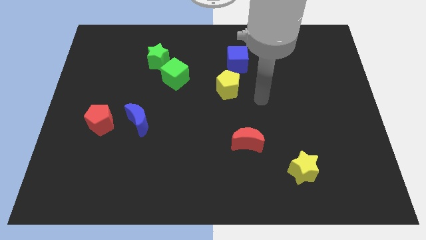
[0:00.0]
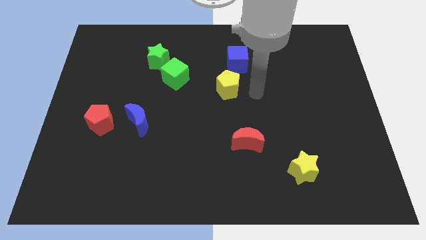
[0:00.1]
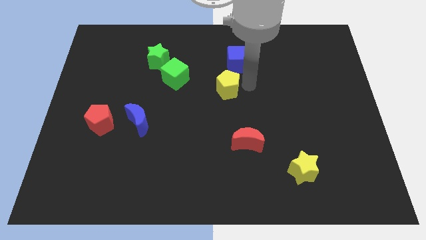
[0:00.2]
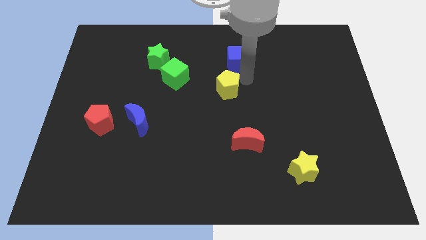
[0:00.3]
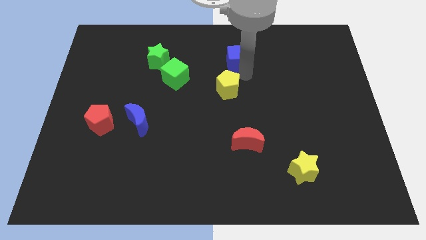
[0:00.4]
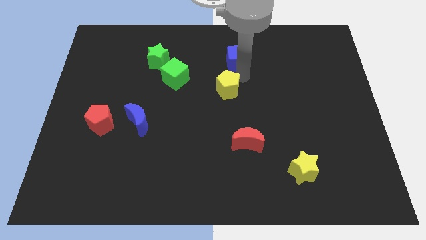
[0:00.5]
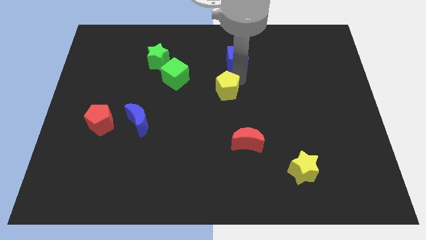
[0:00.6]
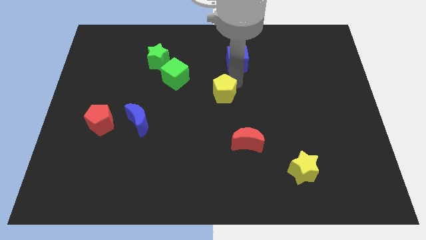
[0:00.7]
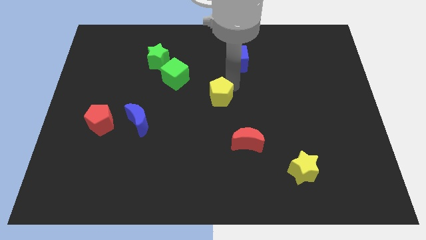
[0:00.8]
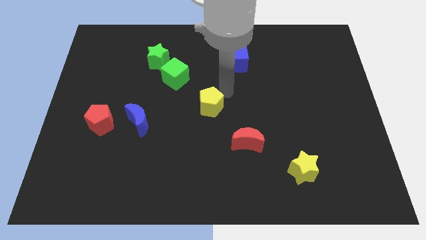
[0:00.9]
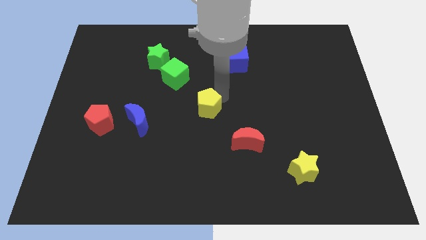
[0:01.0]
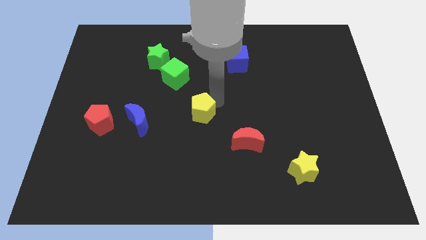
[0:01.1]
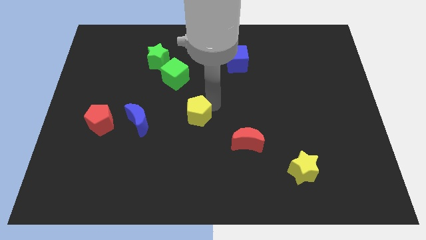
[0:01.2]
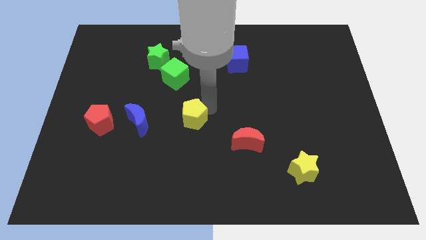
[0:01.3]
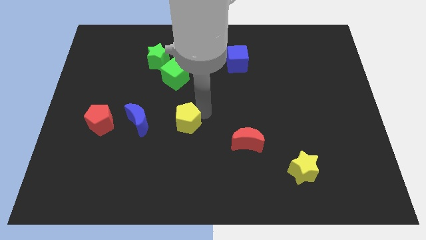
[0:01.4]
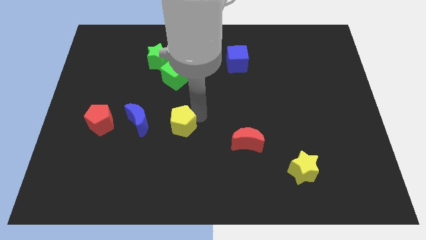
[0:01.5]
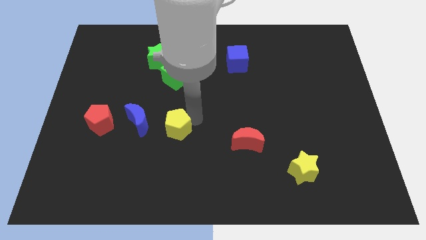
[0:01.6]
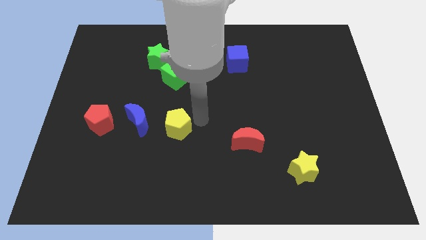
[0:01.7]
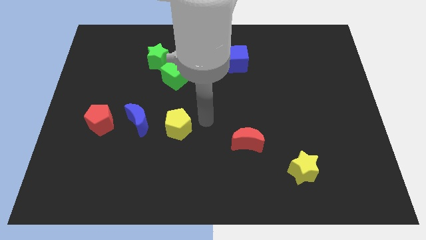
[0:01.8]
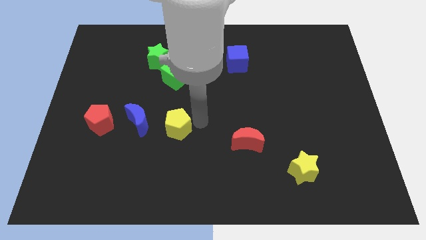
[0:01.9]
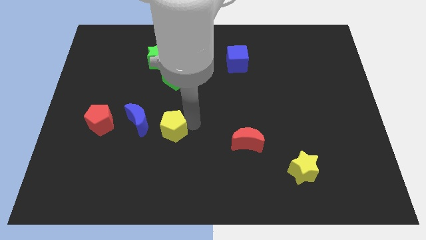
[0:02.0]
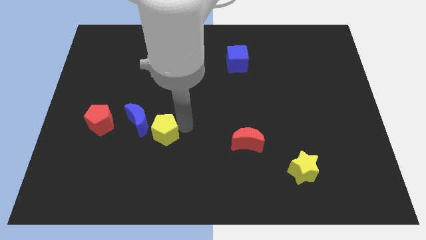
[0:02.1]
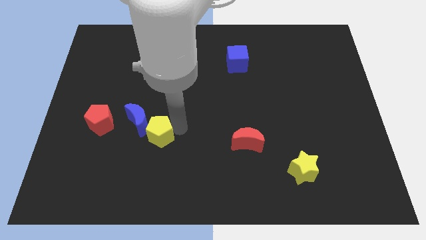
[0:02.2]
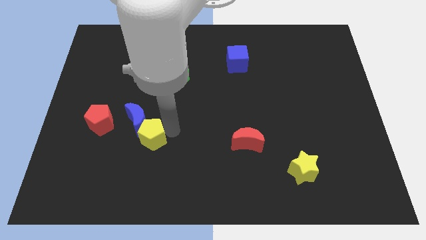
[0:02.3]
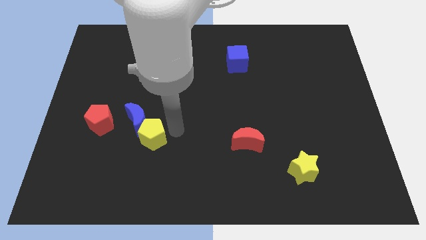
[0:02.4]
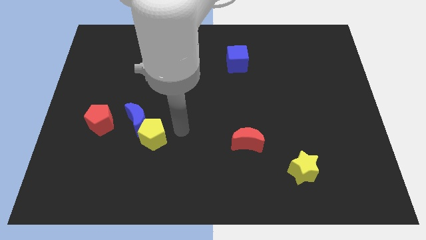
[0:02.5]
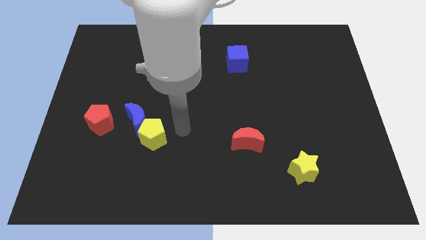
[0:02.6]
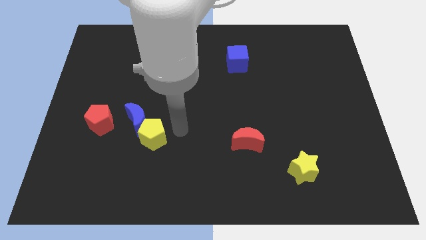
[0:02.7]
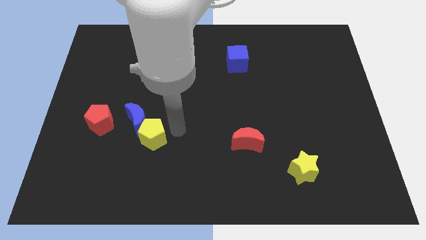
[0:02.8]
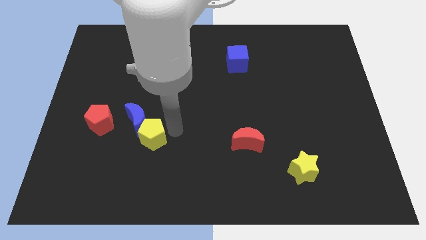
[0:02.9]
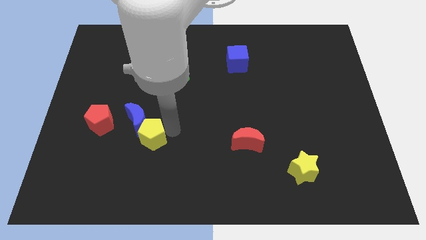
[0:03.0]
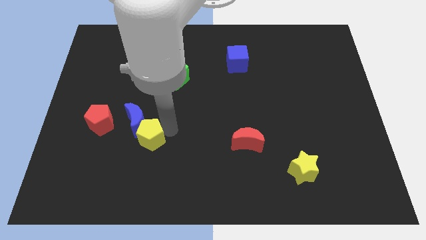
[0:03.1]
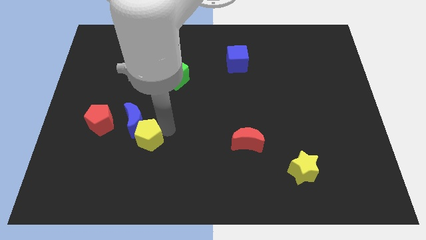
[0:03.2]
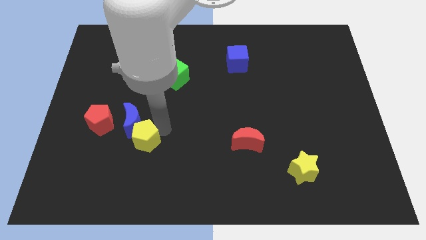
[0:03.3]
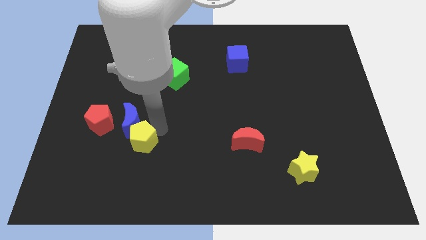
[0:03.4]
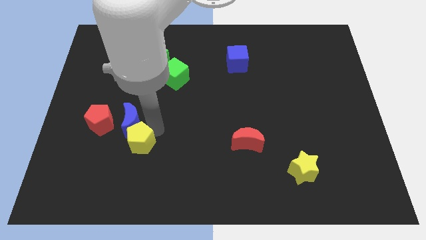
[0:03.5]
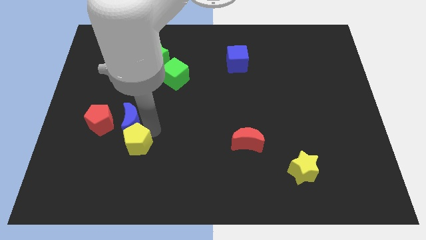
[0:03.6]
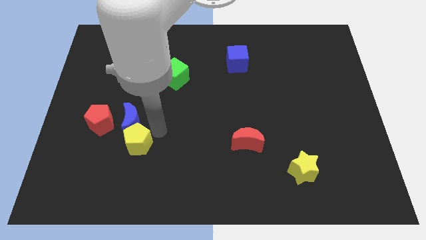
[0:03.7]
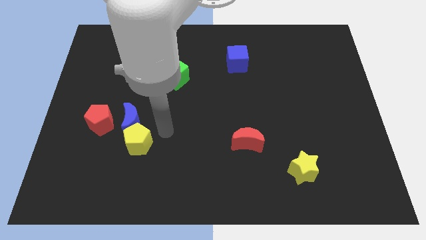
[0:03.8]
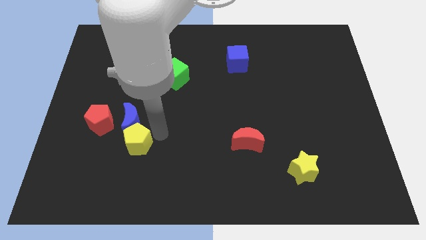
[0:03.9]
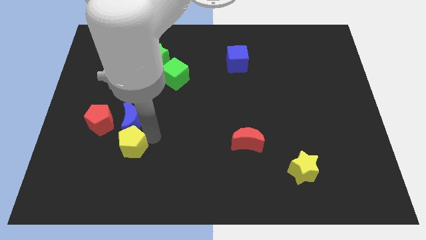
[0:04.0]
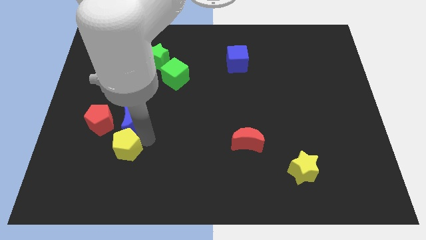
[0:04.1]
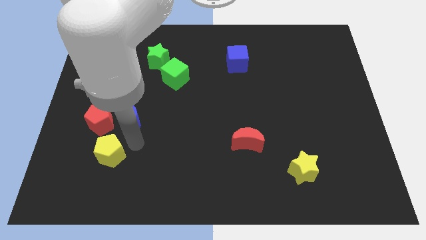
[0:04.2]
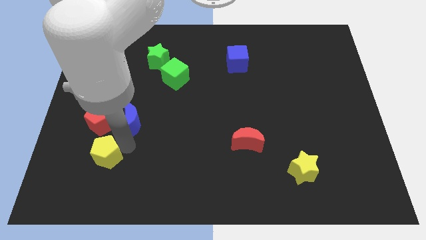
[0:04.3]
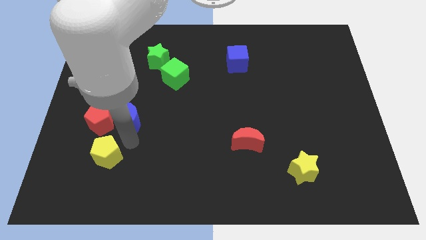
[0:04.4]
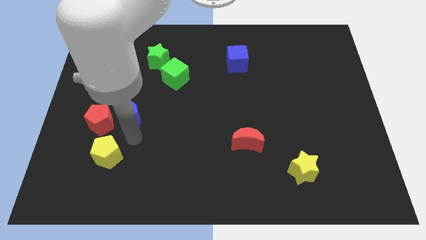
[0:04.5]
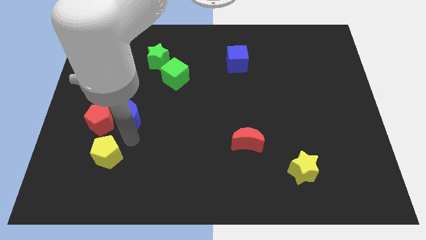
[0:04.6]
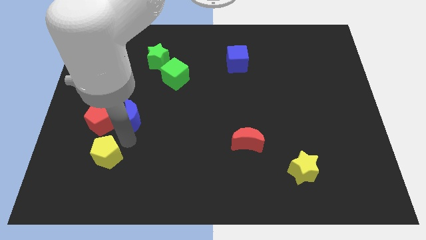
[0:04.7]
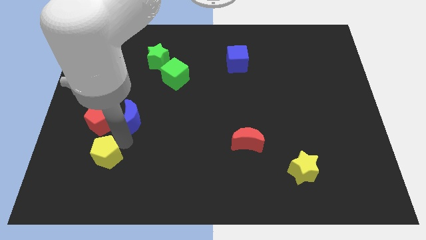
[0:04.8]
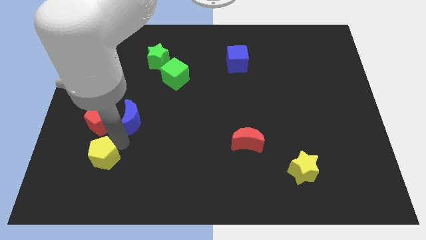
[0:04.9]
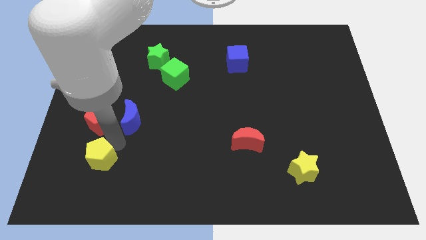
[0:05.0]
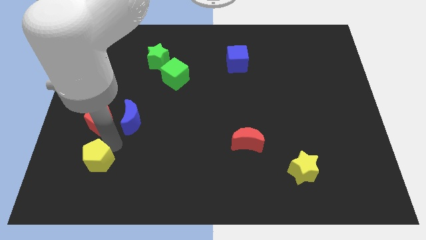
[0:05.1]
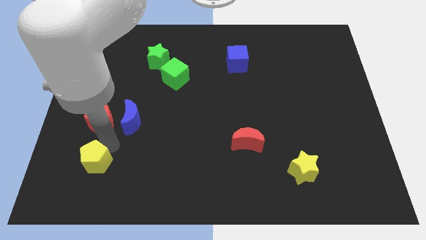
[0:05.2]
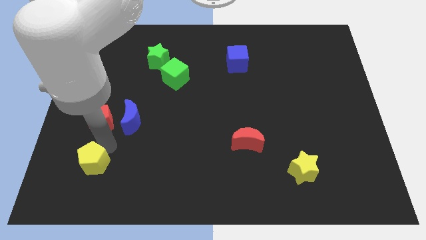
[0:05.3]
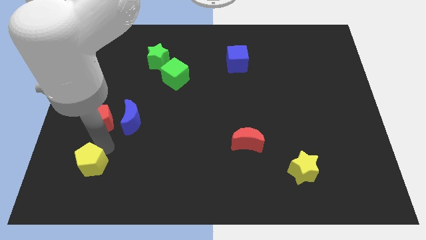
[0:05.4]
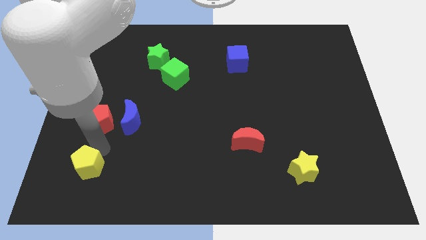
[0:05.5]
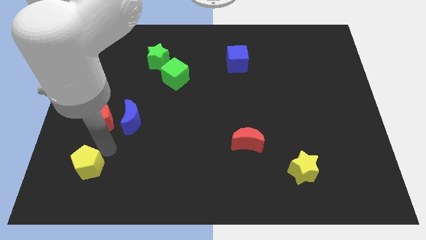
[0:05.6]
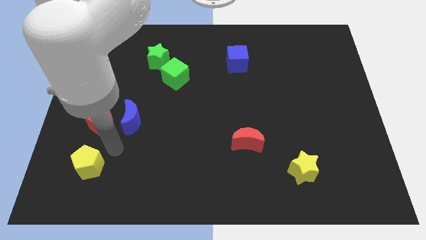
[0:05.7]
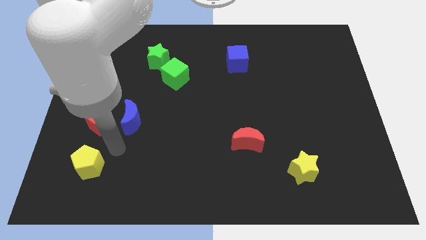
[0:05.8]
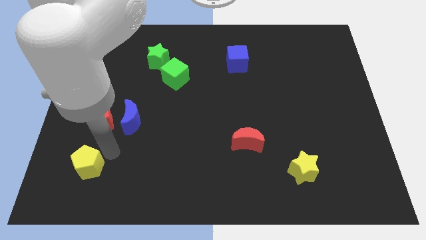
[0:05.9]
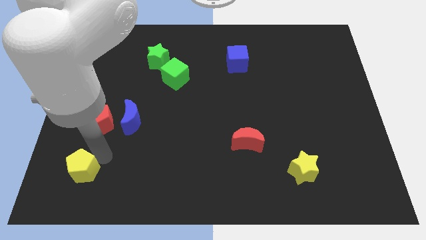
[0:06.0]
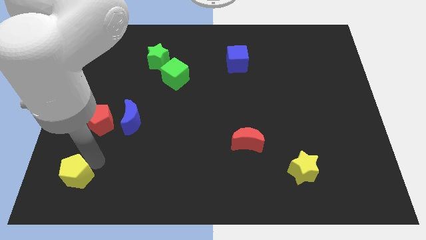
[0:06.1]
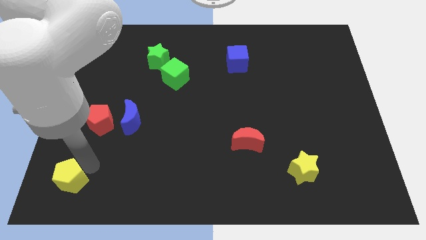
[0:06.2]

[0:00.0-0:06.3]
move the yellow pentagon to the bottom left of the board

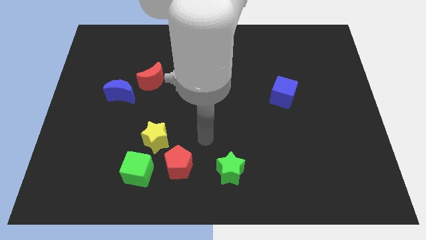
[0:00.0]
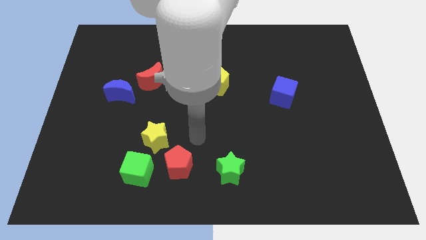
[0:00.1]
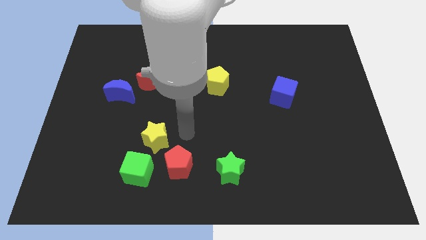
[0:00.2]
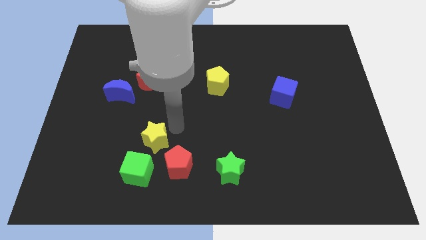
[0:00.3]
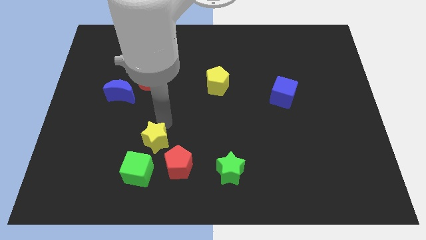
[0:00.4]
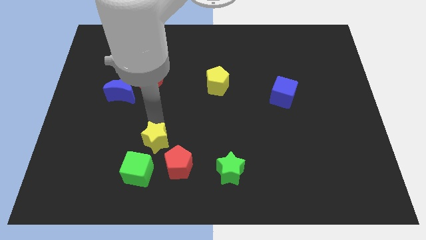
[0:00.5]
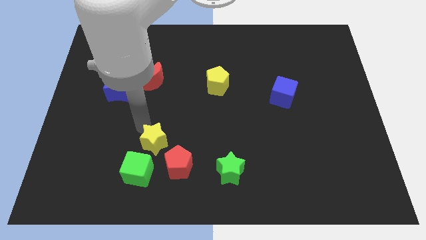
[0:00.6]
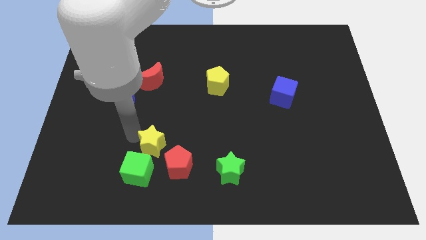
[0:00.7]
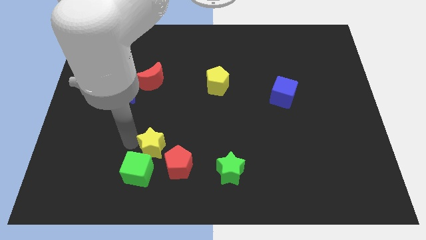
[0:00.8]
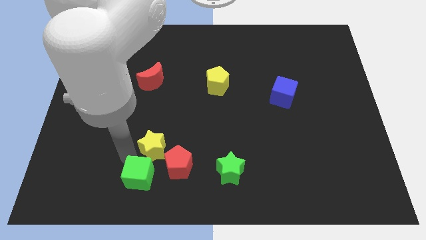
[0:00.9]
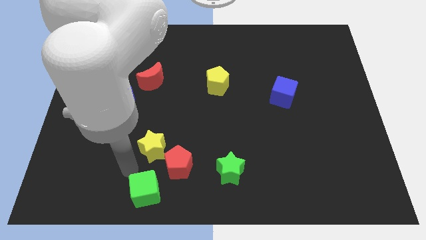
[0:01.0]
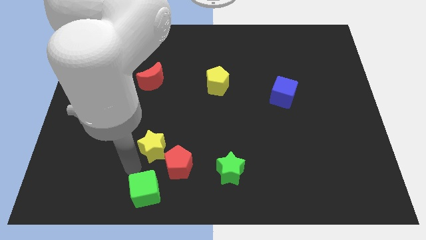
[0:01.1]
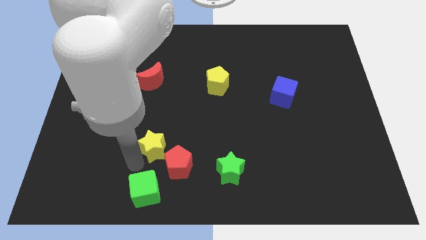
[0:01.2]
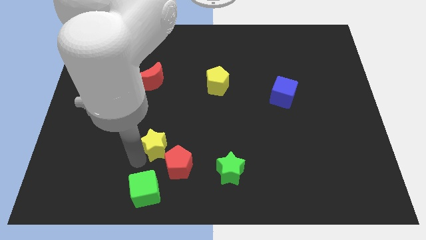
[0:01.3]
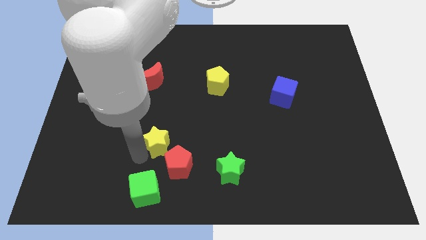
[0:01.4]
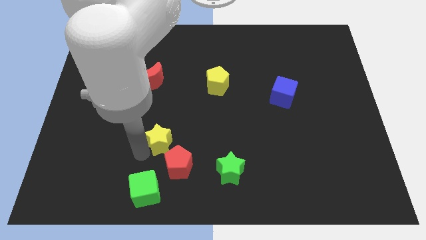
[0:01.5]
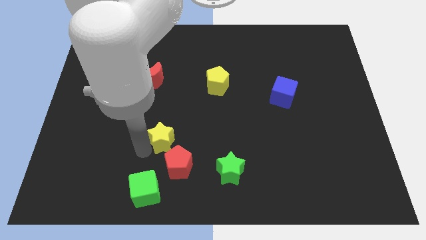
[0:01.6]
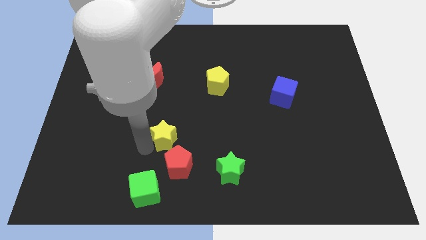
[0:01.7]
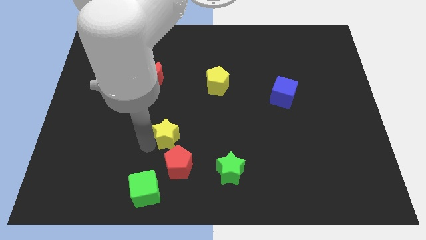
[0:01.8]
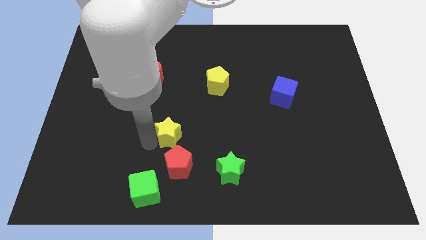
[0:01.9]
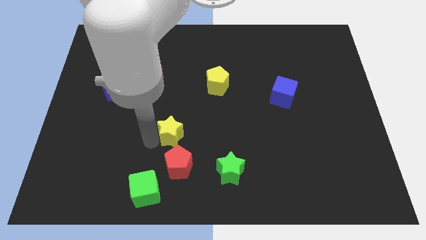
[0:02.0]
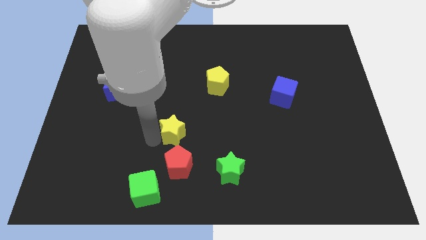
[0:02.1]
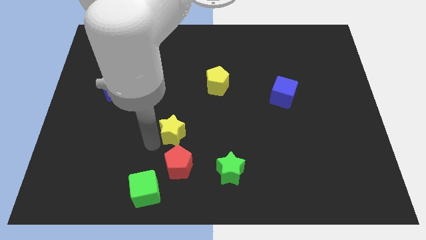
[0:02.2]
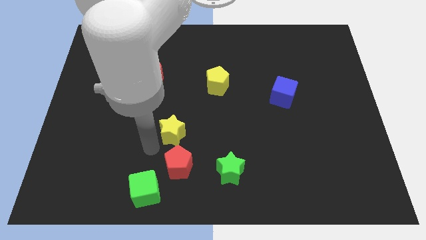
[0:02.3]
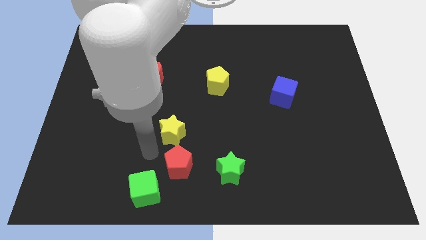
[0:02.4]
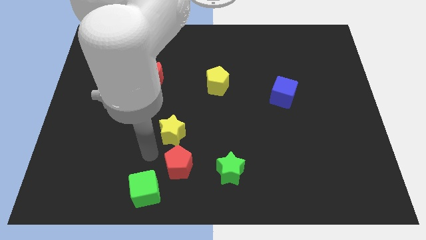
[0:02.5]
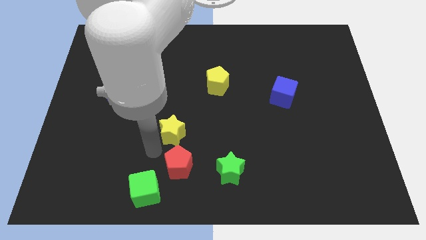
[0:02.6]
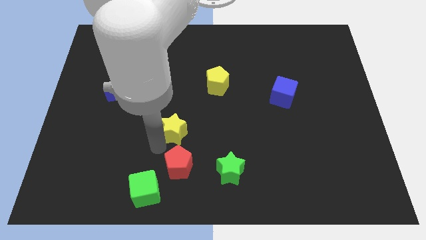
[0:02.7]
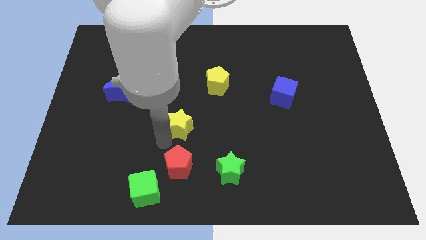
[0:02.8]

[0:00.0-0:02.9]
put the yellow star to the center
